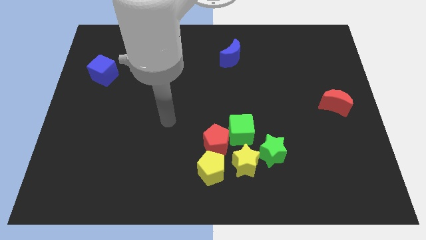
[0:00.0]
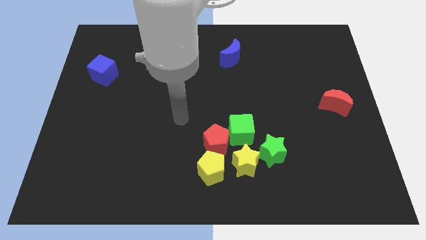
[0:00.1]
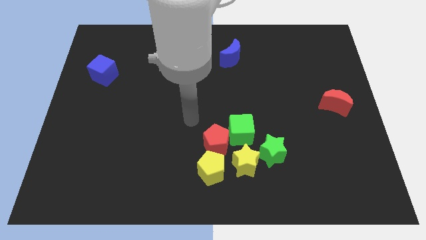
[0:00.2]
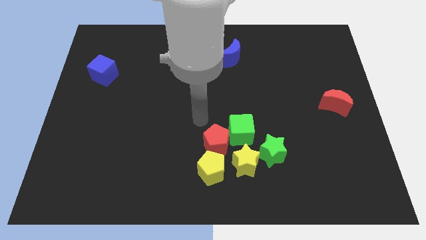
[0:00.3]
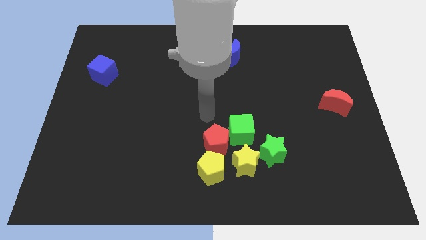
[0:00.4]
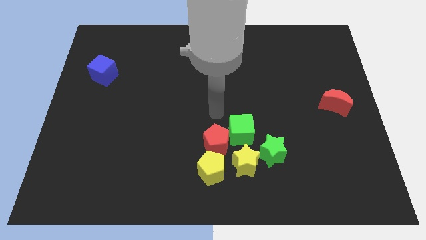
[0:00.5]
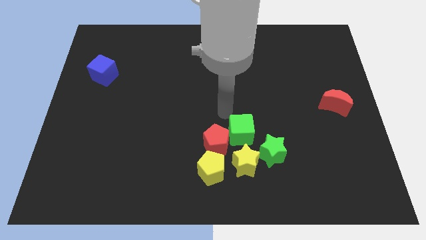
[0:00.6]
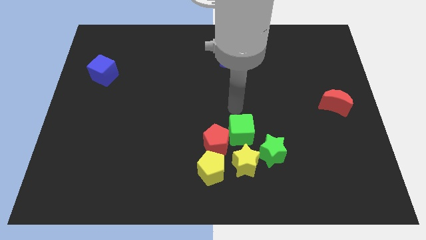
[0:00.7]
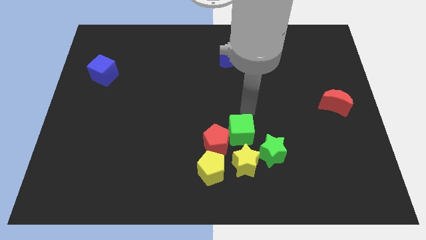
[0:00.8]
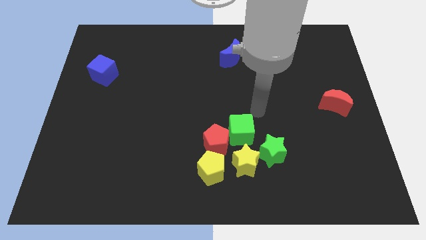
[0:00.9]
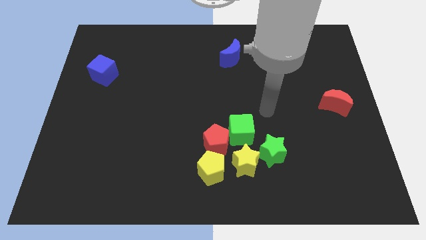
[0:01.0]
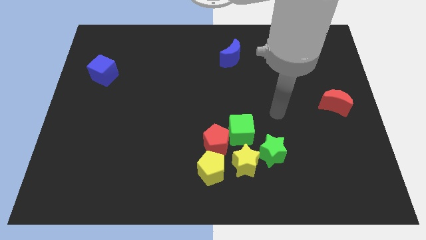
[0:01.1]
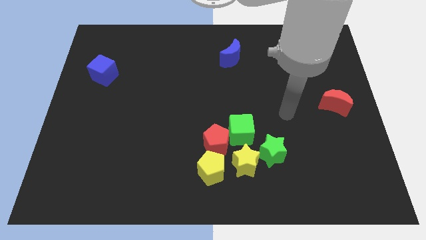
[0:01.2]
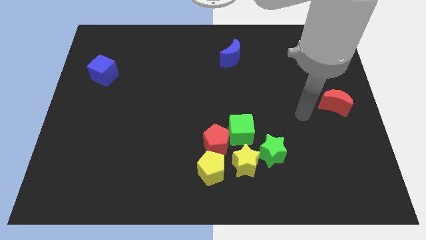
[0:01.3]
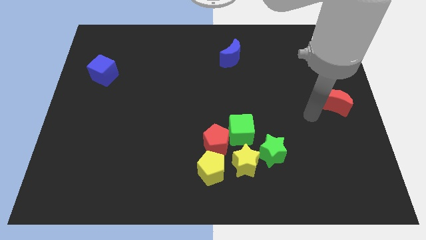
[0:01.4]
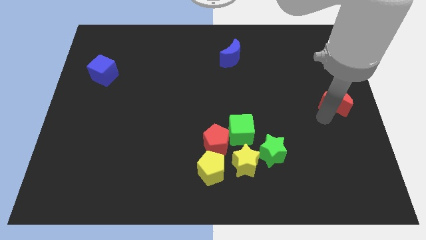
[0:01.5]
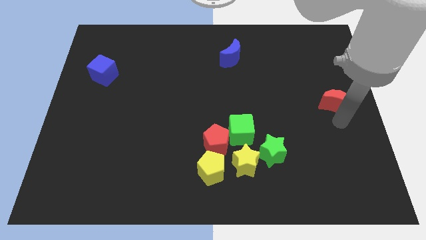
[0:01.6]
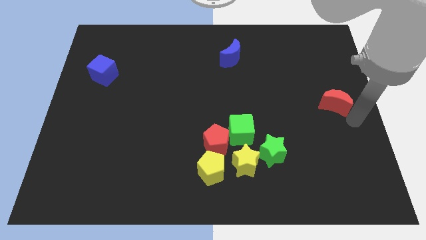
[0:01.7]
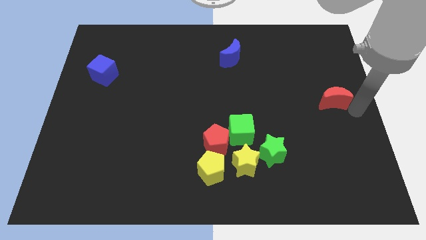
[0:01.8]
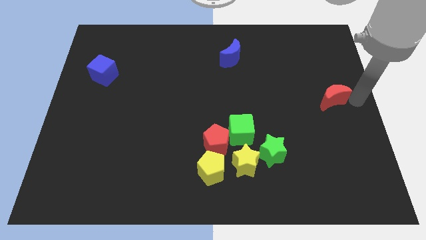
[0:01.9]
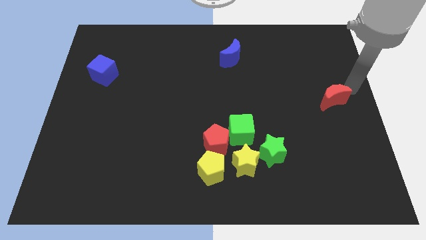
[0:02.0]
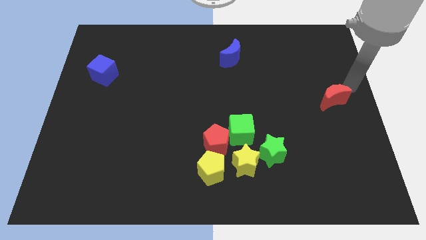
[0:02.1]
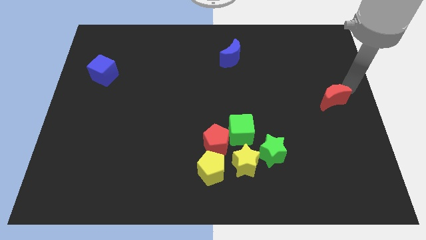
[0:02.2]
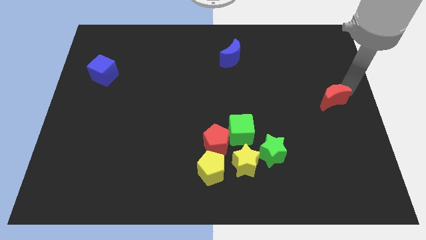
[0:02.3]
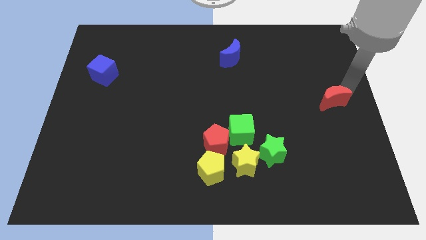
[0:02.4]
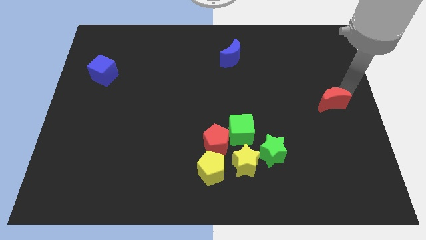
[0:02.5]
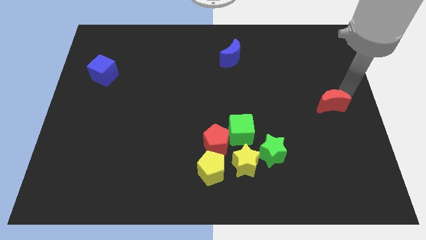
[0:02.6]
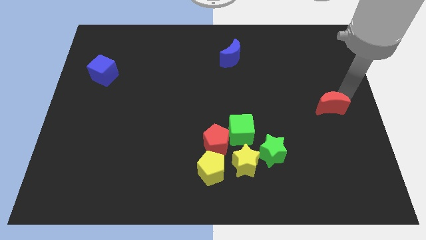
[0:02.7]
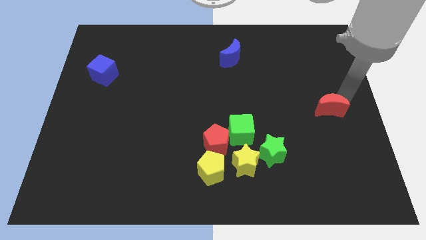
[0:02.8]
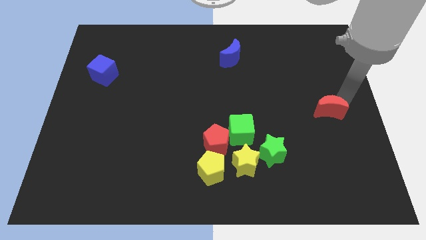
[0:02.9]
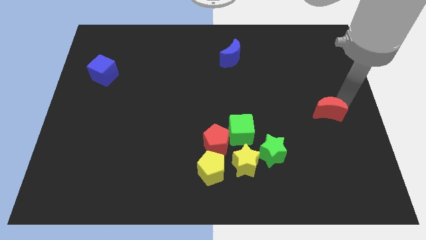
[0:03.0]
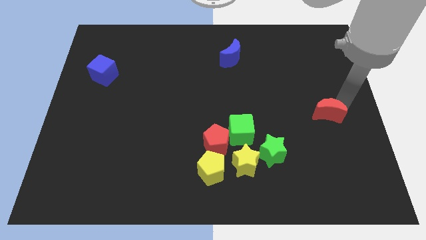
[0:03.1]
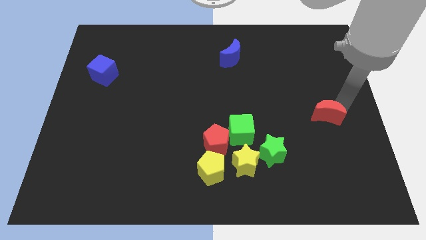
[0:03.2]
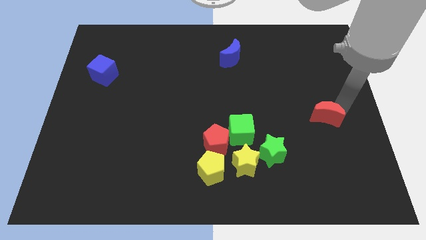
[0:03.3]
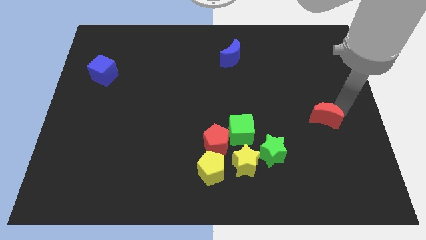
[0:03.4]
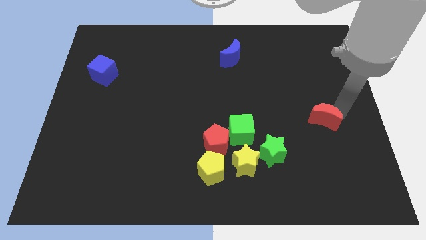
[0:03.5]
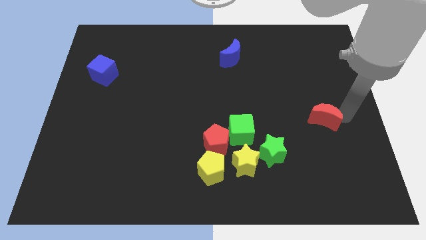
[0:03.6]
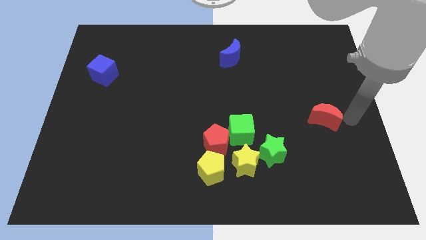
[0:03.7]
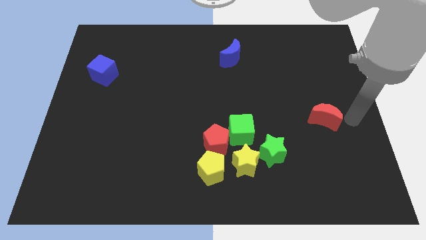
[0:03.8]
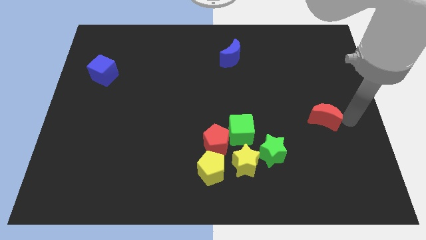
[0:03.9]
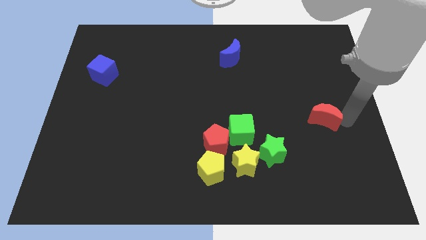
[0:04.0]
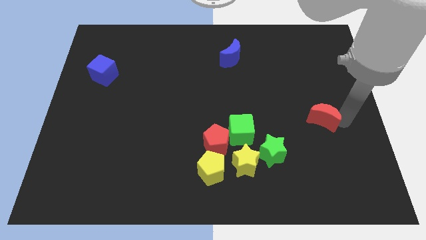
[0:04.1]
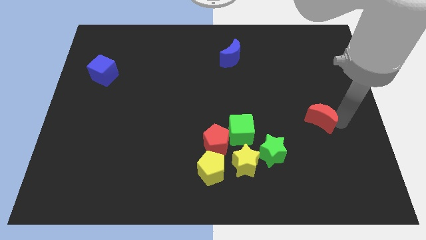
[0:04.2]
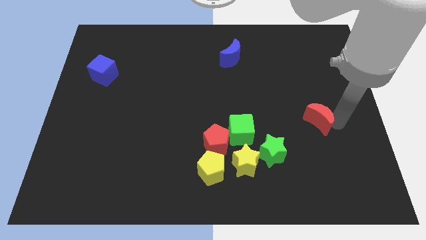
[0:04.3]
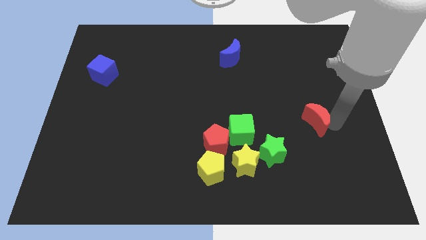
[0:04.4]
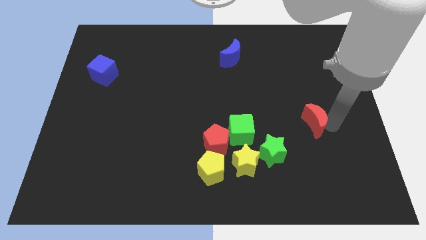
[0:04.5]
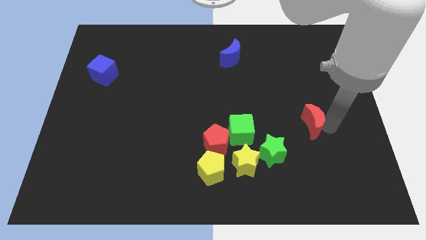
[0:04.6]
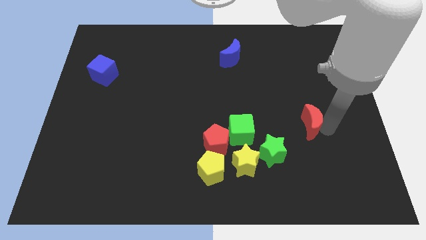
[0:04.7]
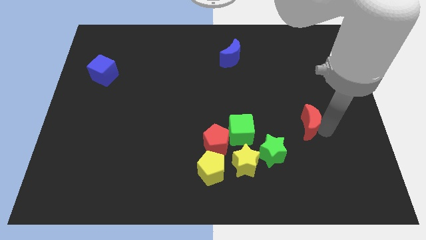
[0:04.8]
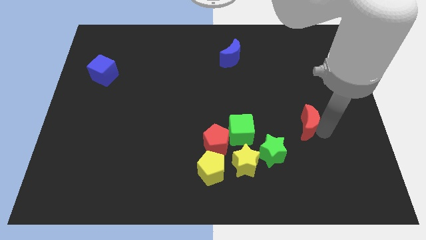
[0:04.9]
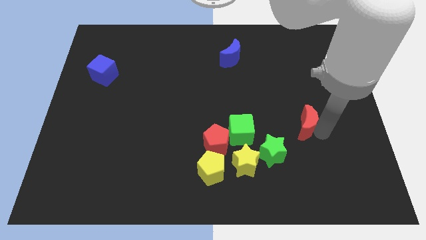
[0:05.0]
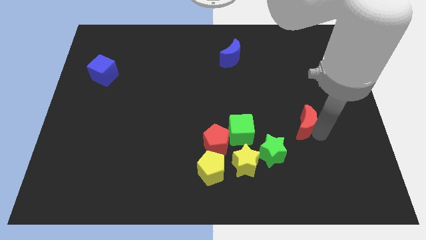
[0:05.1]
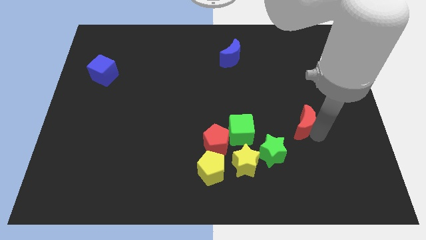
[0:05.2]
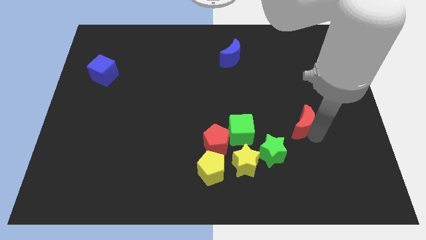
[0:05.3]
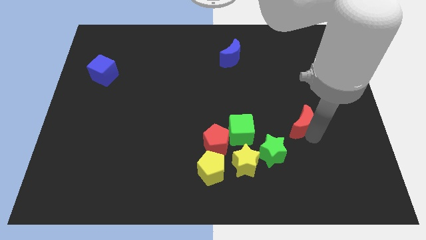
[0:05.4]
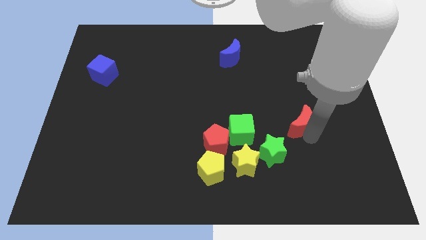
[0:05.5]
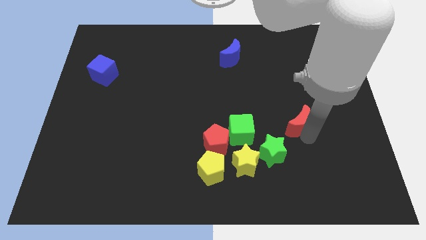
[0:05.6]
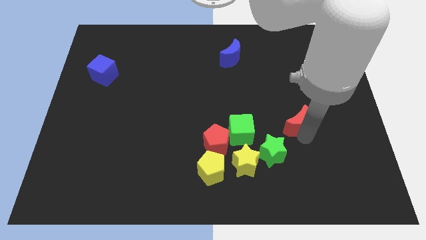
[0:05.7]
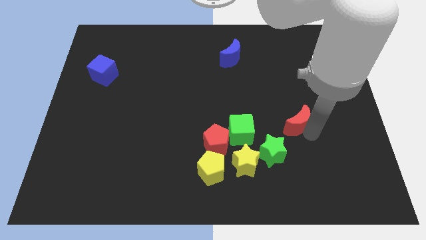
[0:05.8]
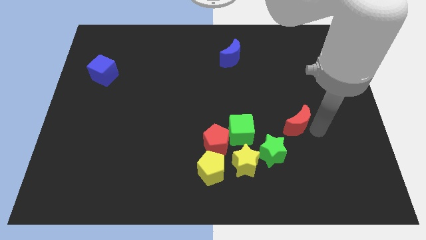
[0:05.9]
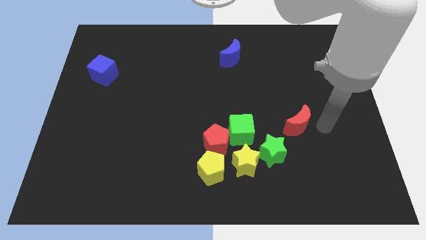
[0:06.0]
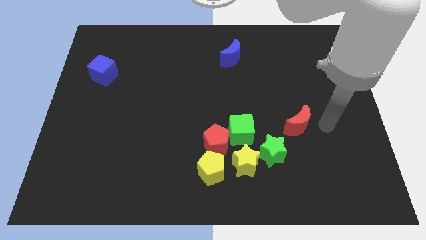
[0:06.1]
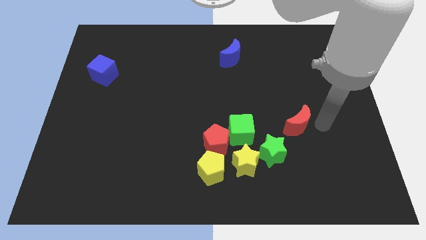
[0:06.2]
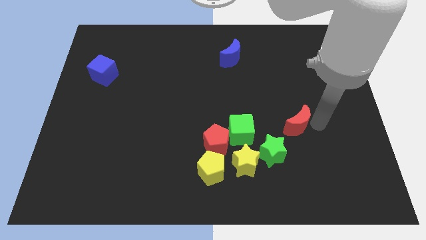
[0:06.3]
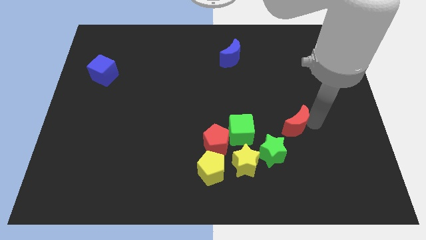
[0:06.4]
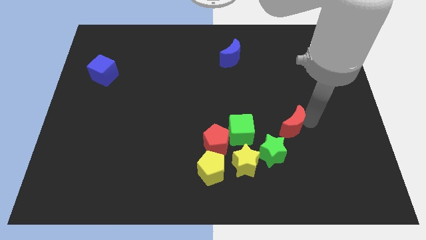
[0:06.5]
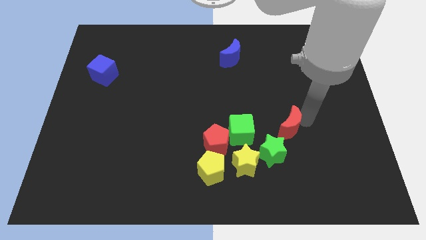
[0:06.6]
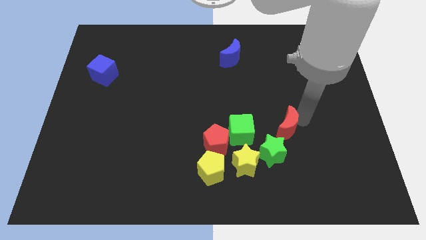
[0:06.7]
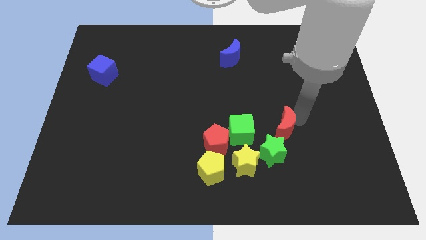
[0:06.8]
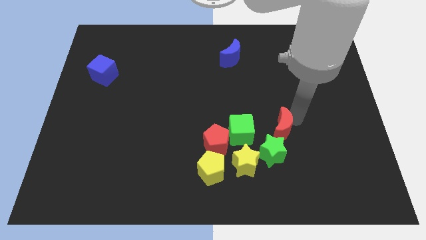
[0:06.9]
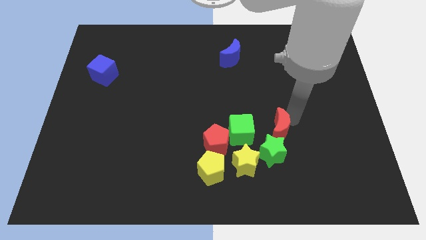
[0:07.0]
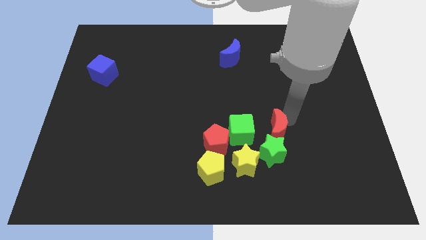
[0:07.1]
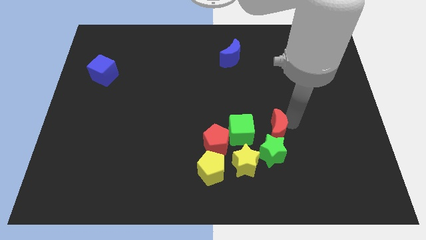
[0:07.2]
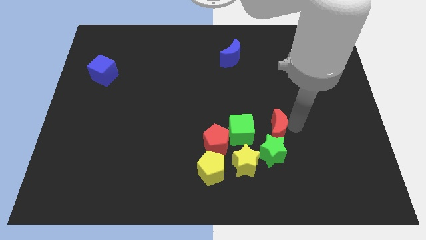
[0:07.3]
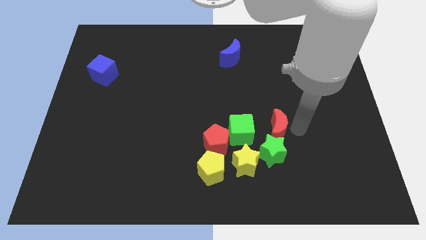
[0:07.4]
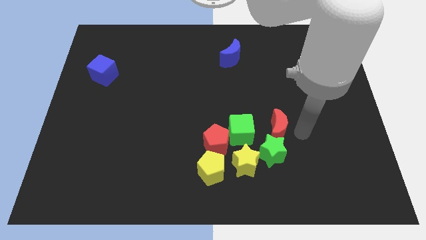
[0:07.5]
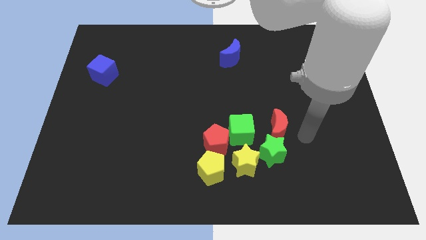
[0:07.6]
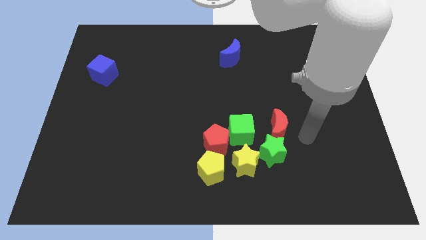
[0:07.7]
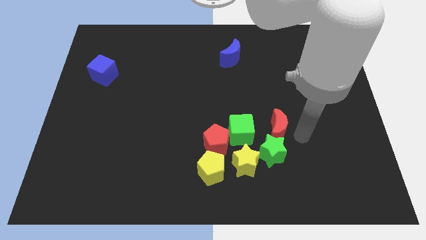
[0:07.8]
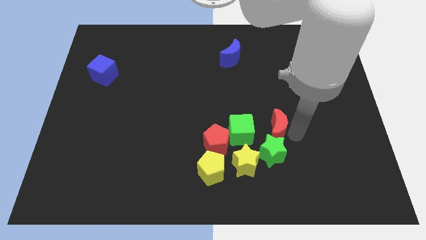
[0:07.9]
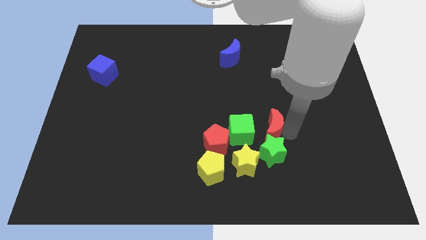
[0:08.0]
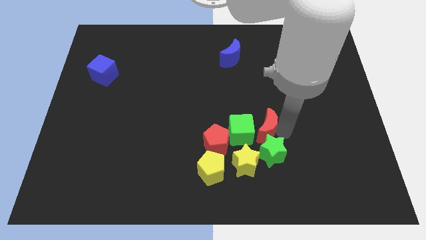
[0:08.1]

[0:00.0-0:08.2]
push the red moon to the green cube

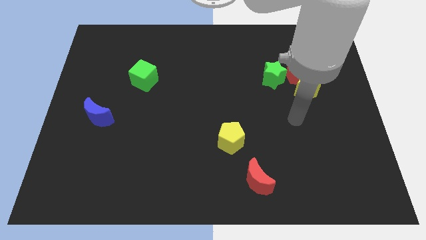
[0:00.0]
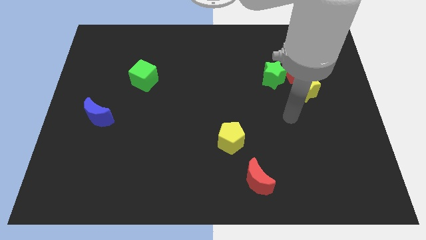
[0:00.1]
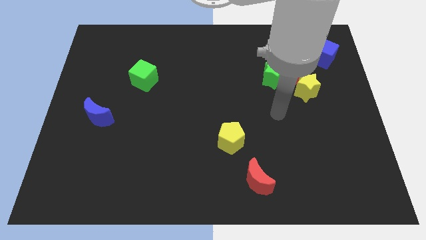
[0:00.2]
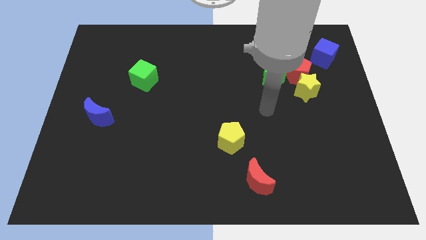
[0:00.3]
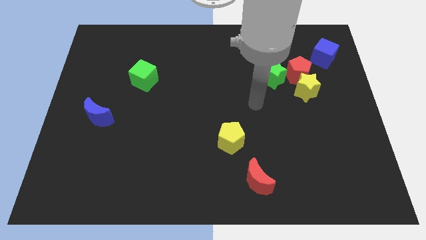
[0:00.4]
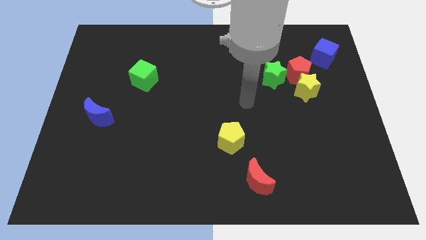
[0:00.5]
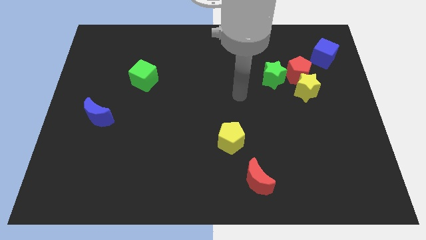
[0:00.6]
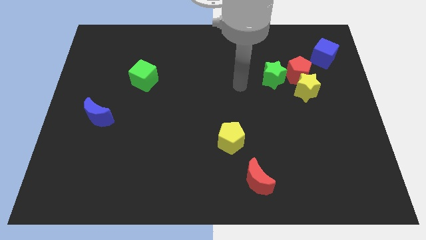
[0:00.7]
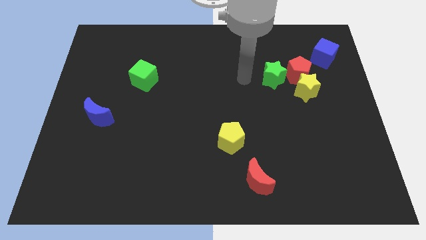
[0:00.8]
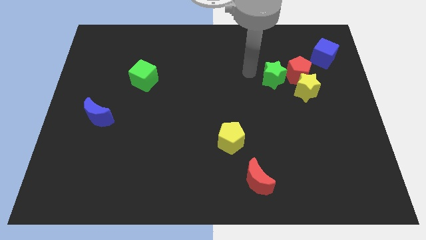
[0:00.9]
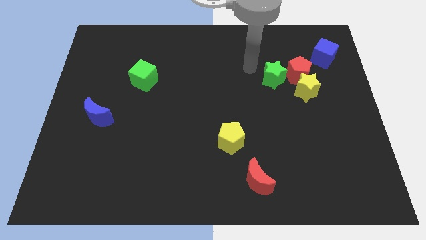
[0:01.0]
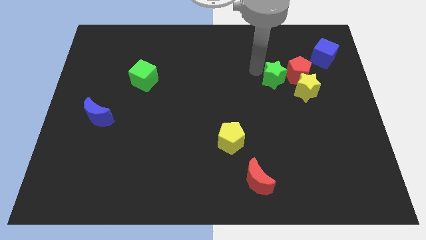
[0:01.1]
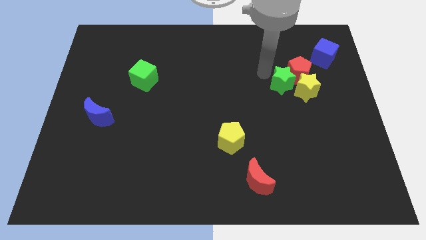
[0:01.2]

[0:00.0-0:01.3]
slide the green star next to the yellow star
